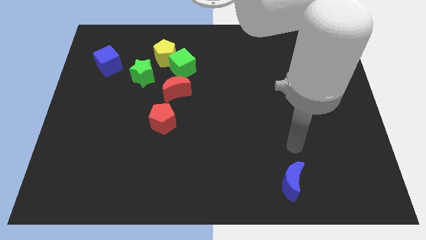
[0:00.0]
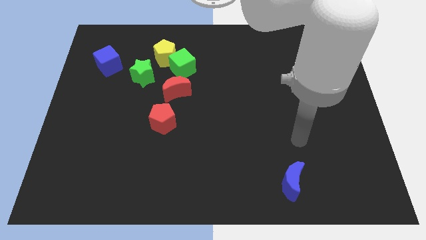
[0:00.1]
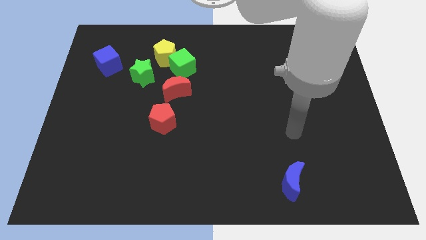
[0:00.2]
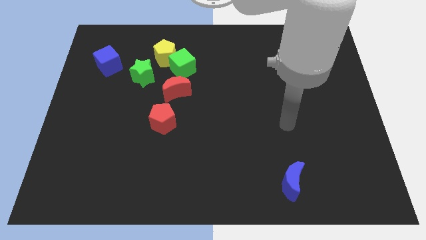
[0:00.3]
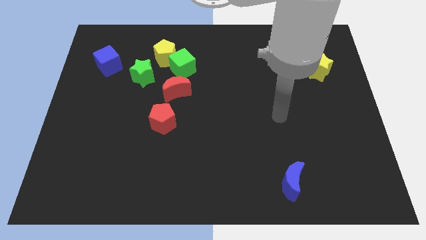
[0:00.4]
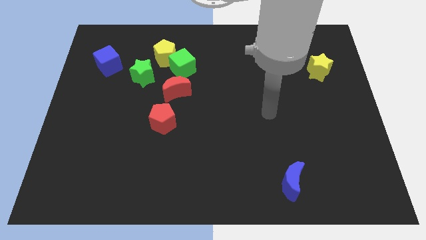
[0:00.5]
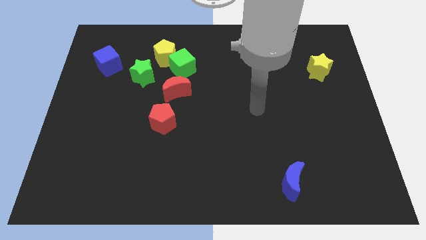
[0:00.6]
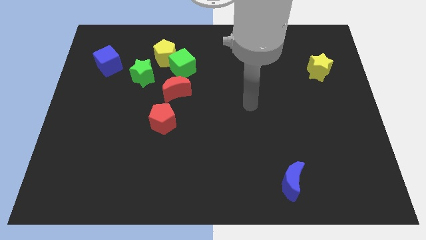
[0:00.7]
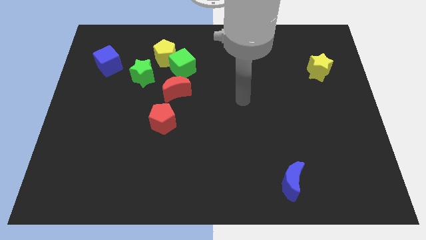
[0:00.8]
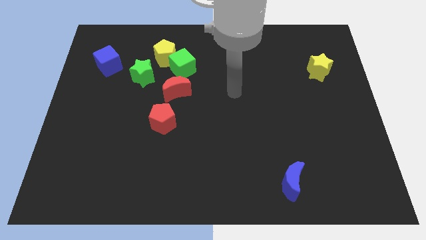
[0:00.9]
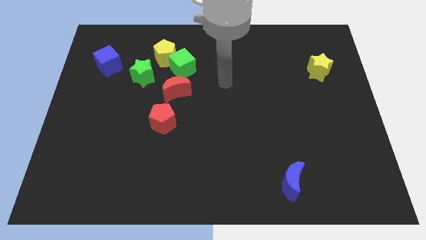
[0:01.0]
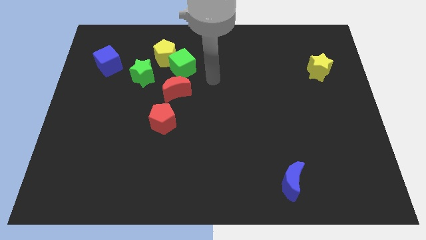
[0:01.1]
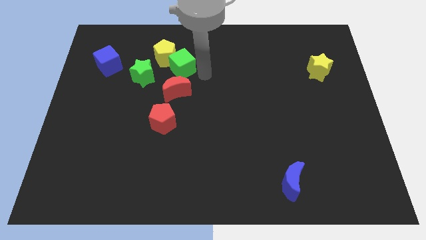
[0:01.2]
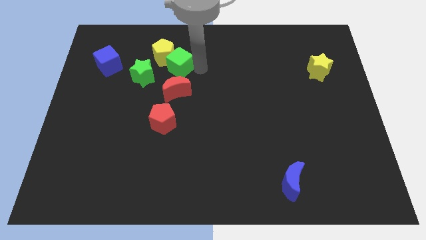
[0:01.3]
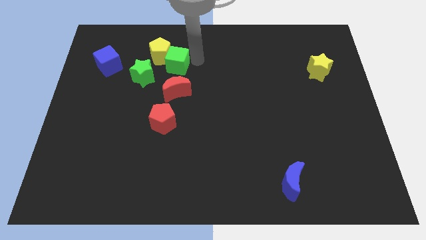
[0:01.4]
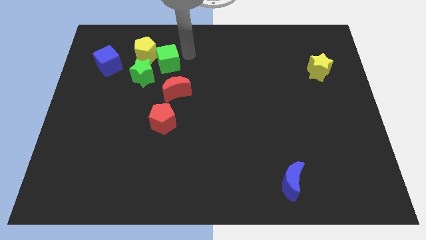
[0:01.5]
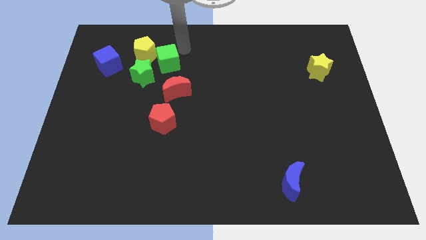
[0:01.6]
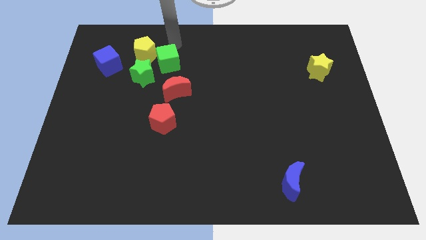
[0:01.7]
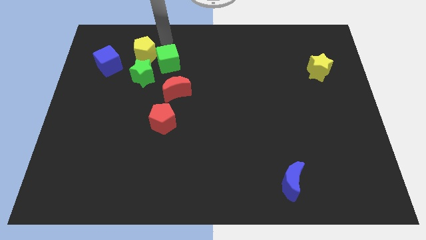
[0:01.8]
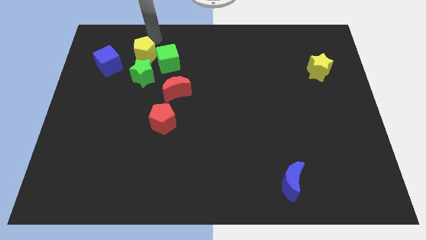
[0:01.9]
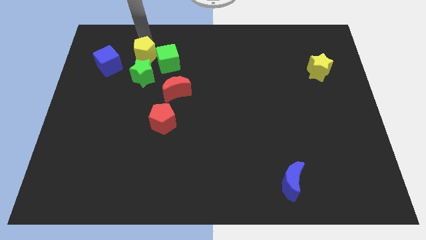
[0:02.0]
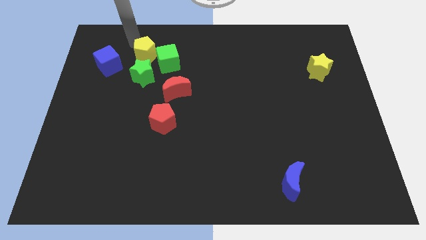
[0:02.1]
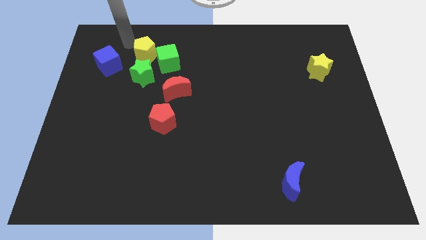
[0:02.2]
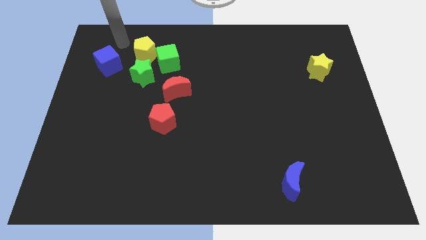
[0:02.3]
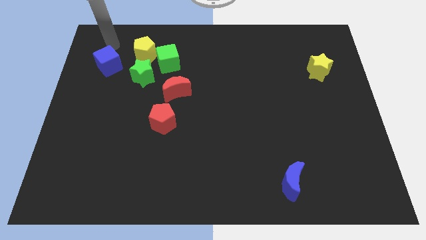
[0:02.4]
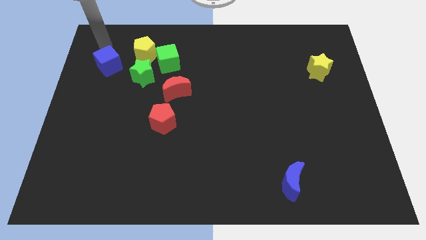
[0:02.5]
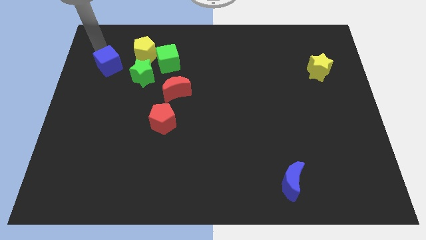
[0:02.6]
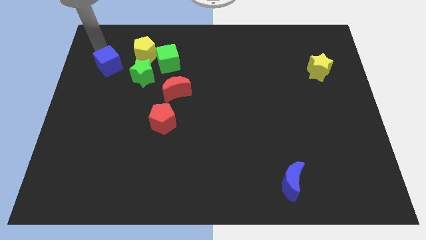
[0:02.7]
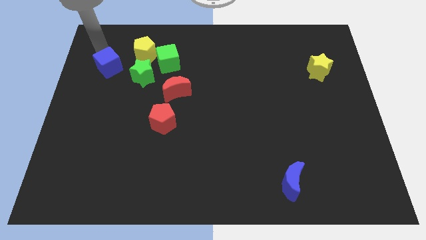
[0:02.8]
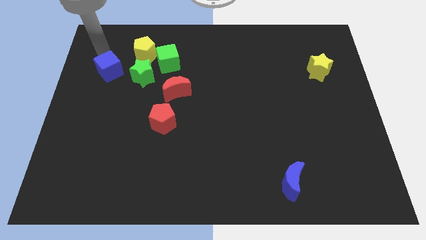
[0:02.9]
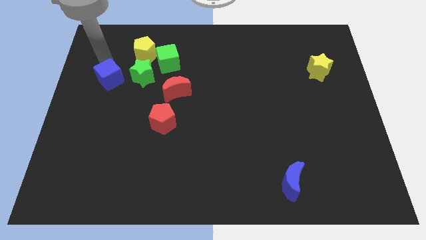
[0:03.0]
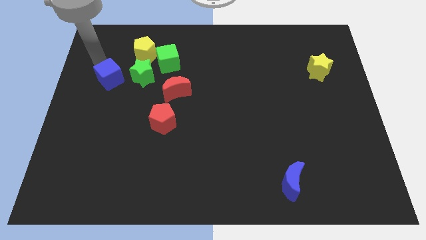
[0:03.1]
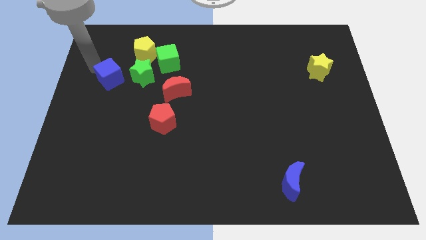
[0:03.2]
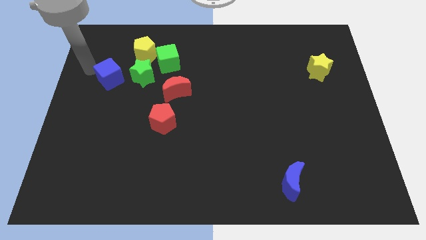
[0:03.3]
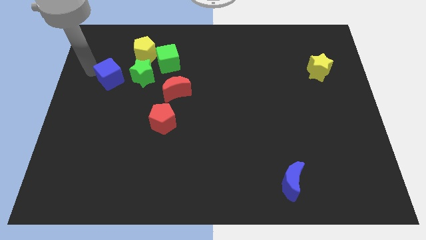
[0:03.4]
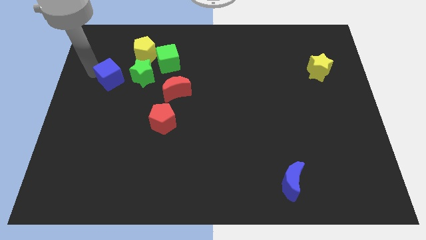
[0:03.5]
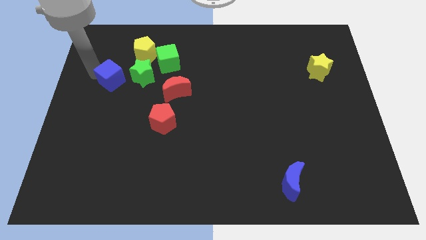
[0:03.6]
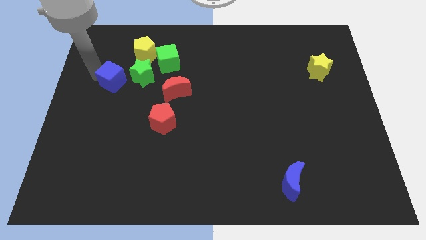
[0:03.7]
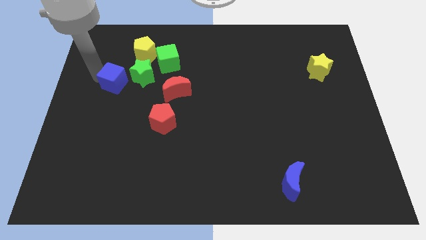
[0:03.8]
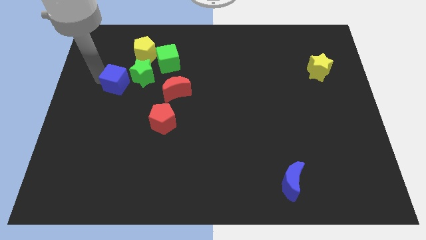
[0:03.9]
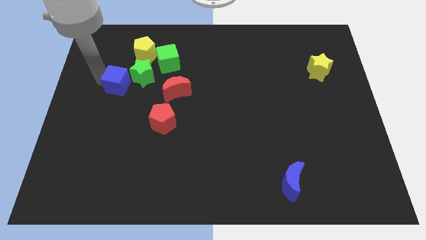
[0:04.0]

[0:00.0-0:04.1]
slightly move the blue cube down and to the right diagonally

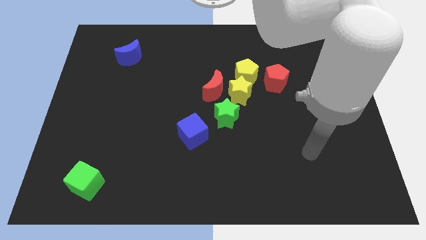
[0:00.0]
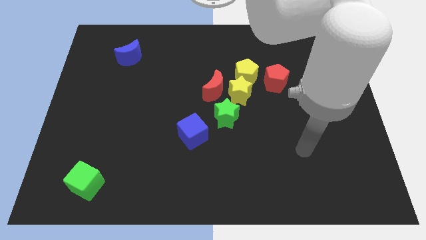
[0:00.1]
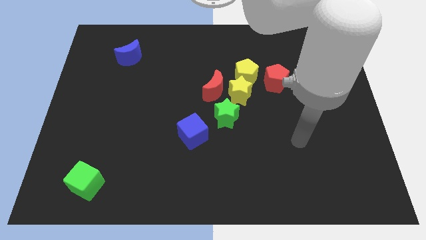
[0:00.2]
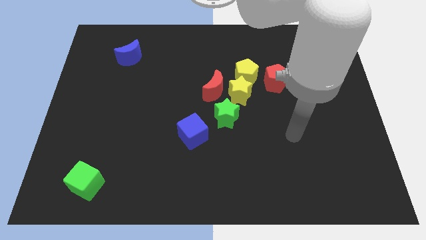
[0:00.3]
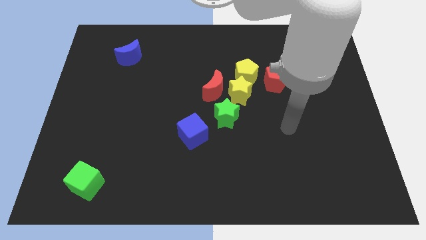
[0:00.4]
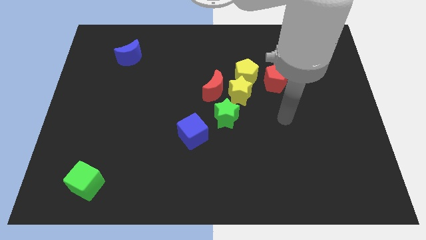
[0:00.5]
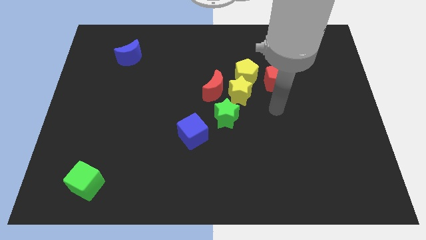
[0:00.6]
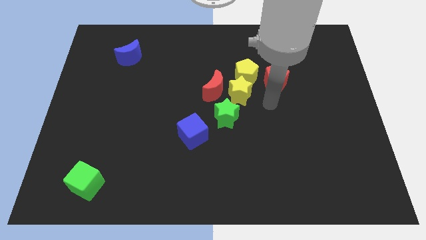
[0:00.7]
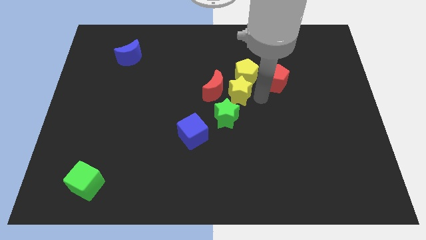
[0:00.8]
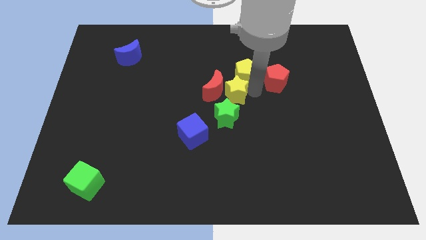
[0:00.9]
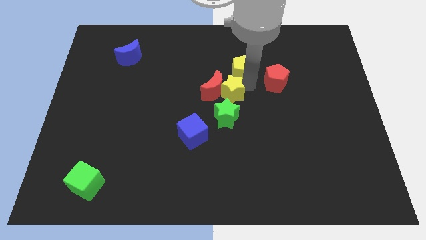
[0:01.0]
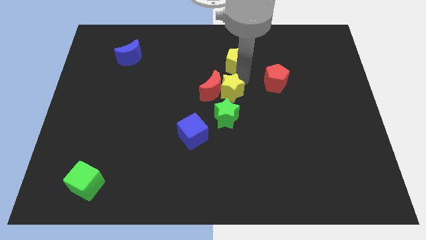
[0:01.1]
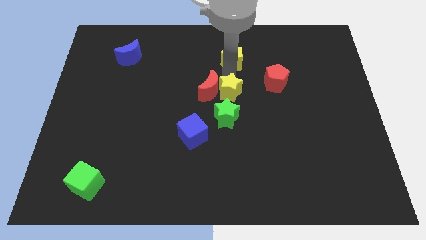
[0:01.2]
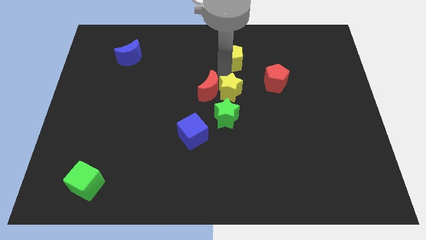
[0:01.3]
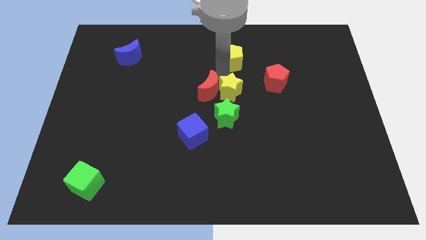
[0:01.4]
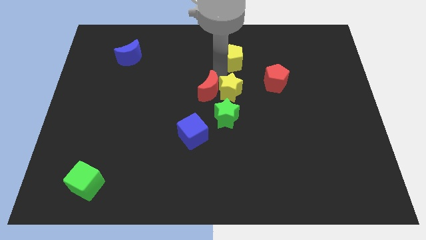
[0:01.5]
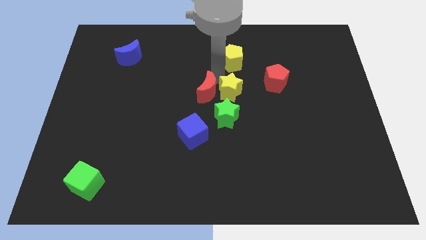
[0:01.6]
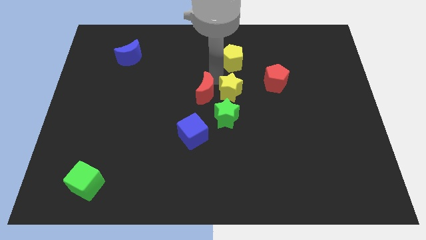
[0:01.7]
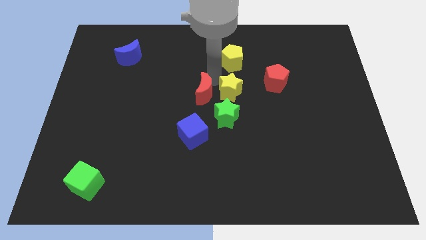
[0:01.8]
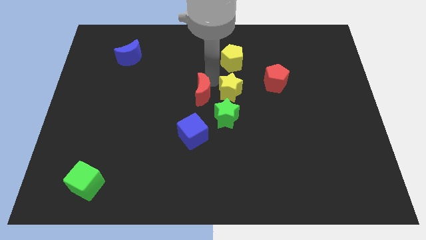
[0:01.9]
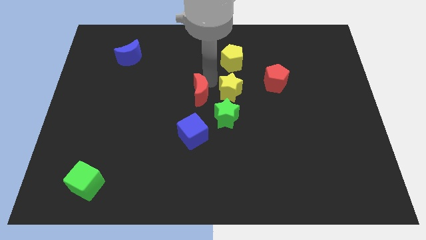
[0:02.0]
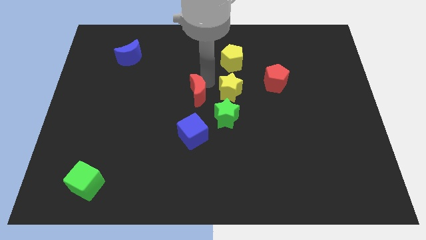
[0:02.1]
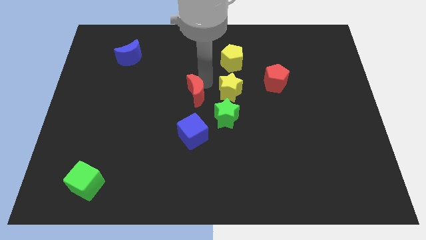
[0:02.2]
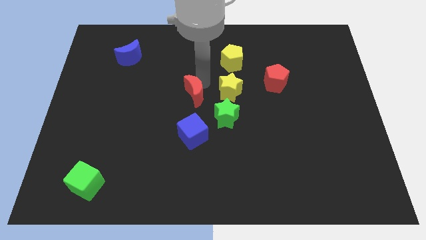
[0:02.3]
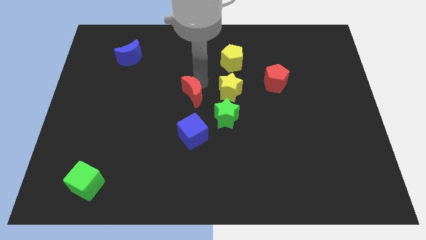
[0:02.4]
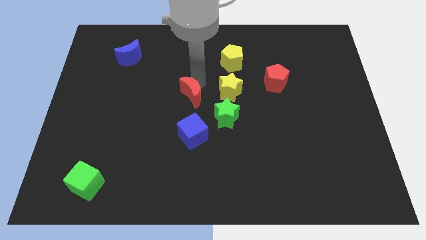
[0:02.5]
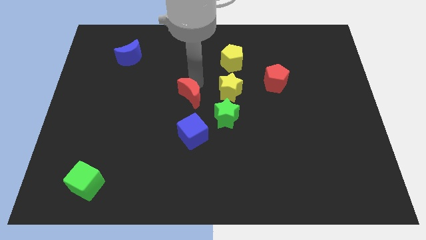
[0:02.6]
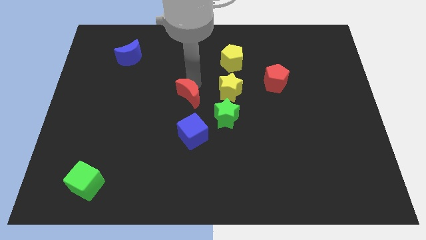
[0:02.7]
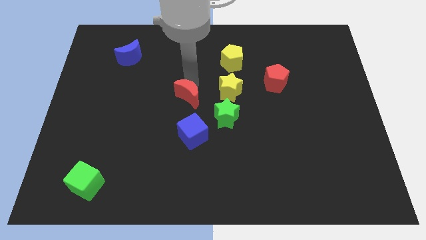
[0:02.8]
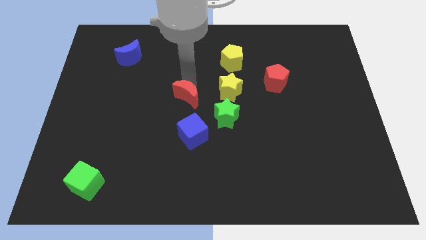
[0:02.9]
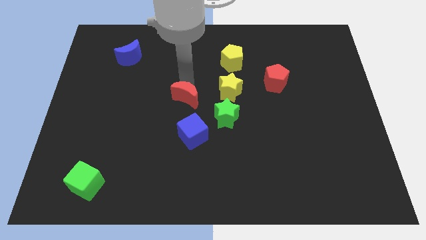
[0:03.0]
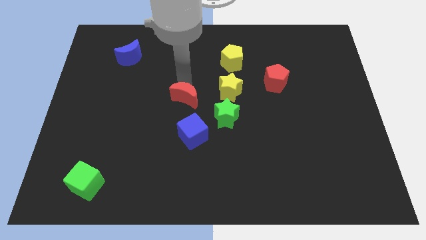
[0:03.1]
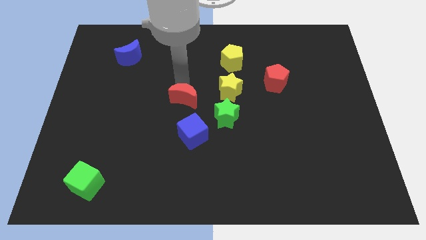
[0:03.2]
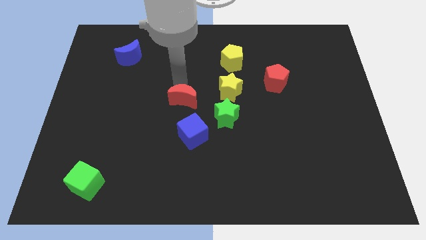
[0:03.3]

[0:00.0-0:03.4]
push the red moon somewhat down and to the left

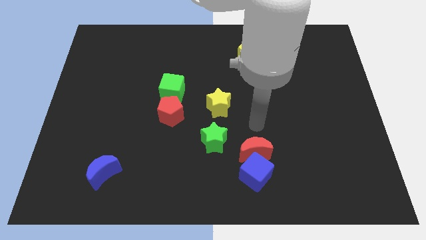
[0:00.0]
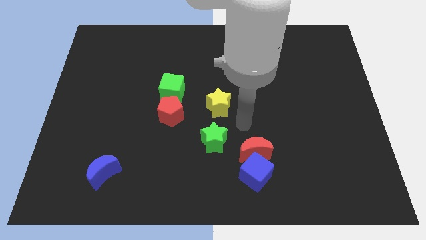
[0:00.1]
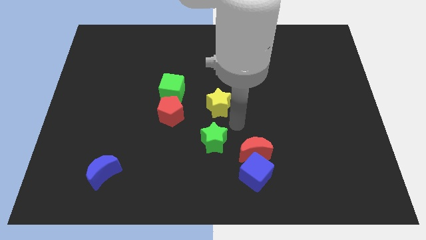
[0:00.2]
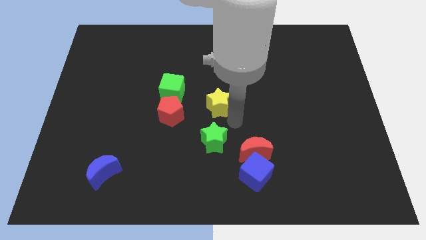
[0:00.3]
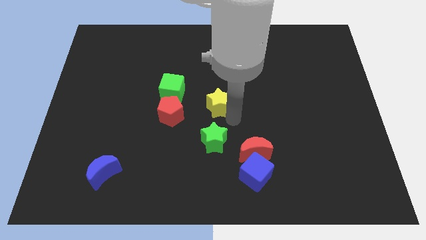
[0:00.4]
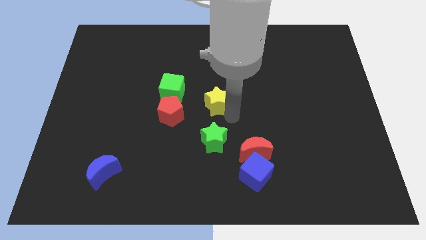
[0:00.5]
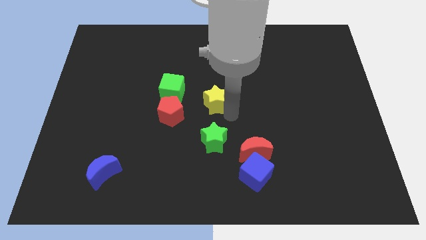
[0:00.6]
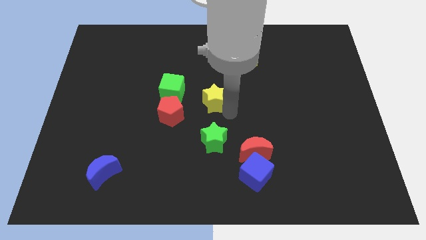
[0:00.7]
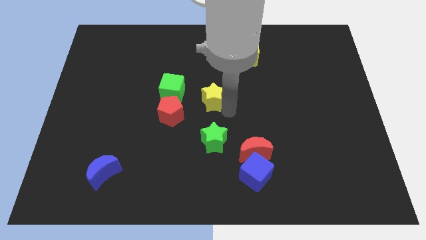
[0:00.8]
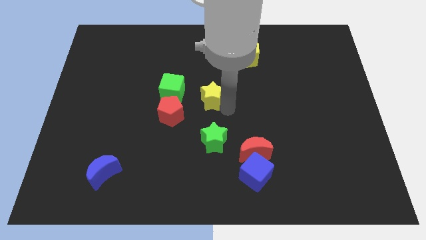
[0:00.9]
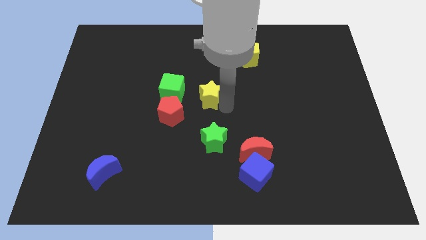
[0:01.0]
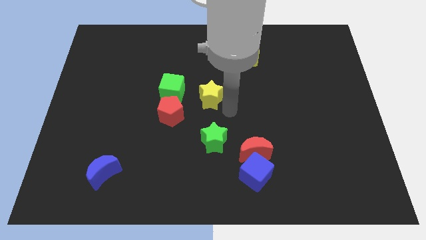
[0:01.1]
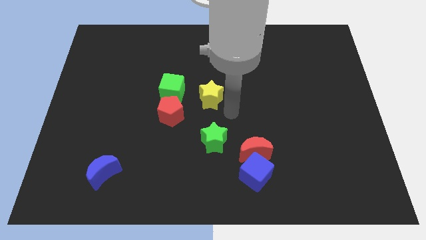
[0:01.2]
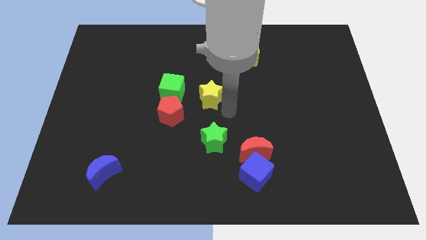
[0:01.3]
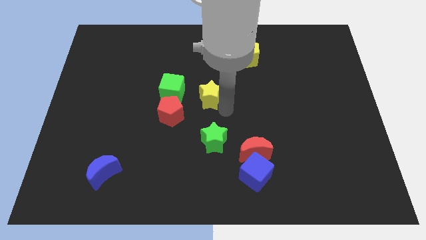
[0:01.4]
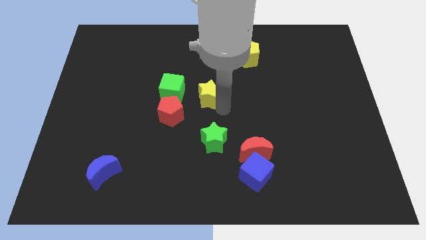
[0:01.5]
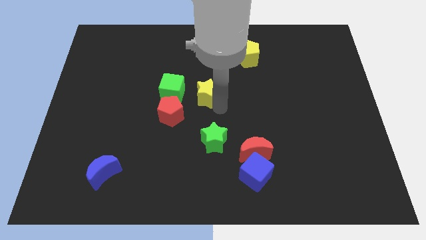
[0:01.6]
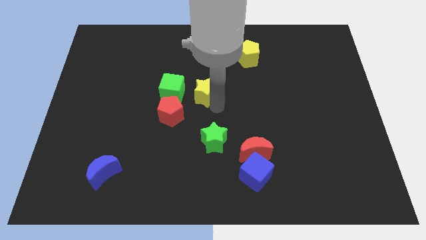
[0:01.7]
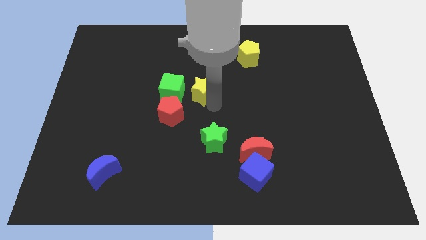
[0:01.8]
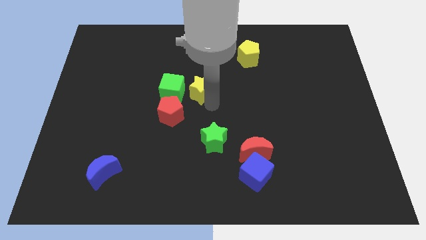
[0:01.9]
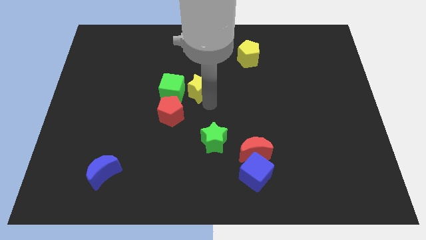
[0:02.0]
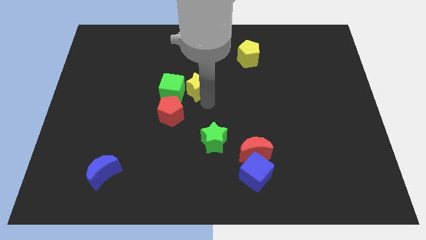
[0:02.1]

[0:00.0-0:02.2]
slightly push the yellow star up and to the left diagonally
